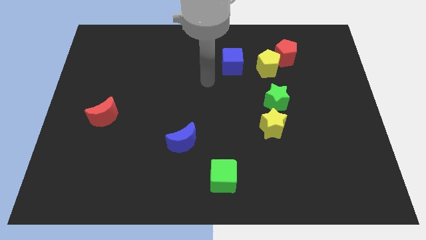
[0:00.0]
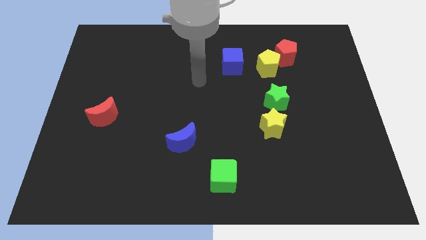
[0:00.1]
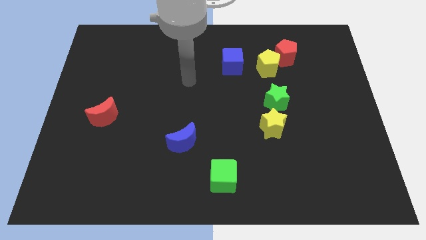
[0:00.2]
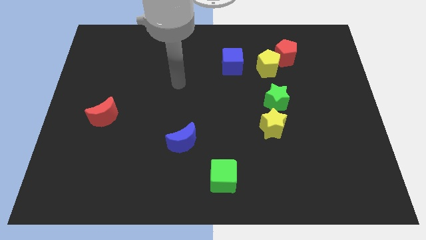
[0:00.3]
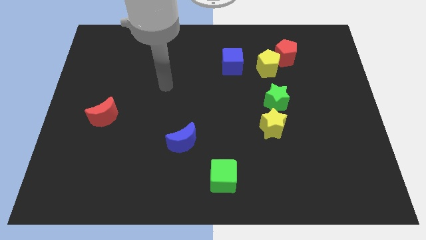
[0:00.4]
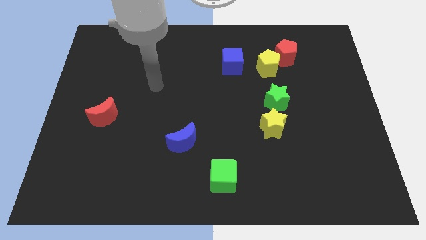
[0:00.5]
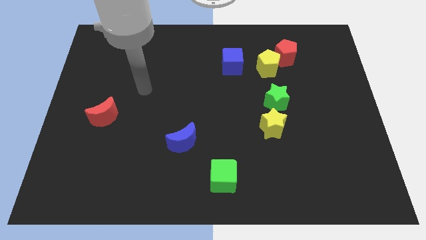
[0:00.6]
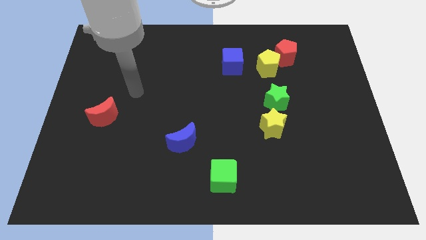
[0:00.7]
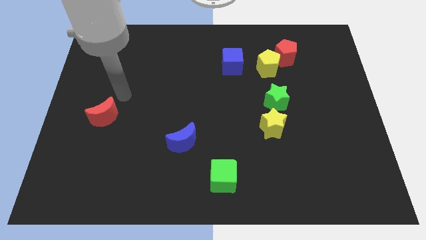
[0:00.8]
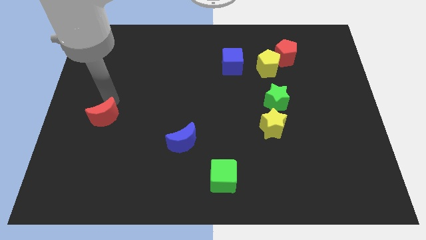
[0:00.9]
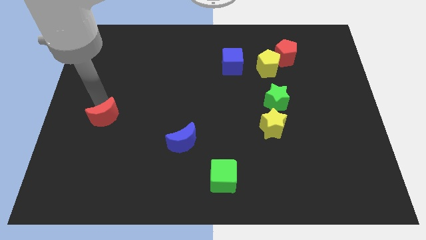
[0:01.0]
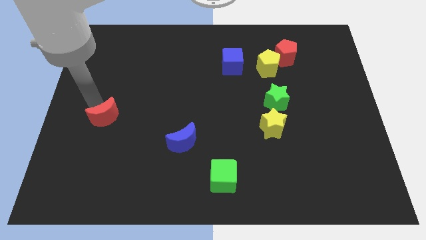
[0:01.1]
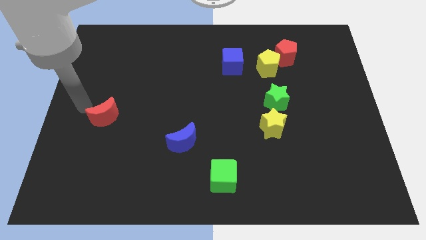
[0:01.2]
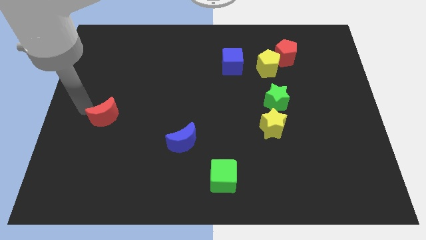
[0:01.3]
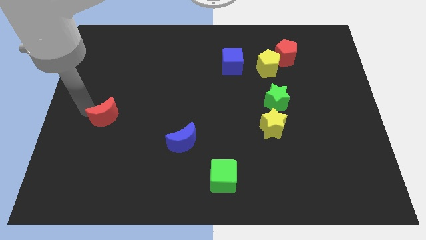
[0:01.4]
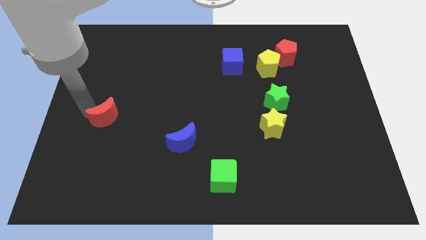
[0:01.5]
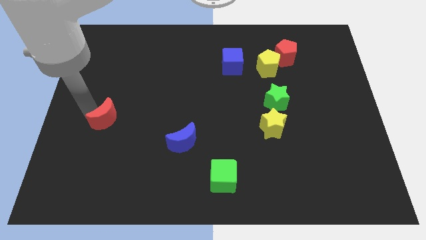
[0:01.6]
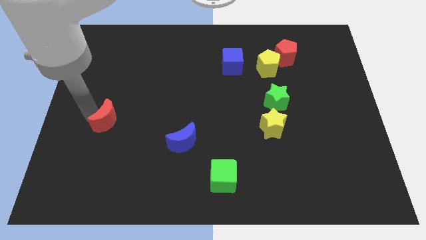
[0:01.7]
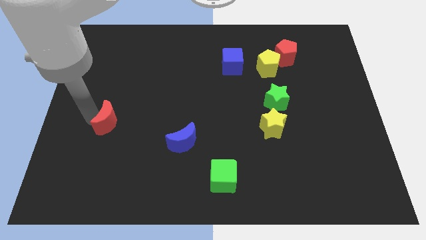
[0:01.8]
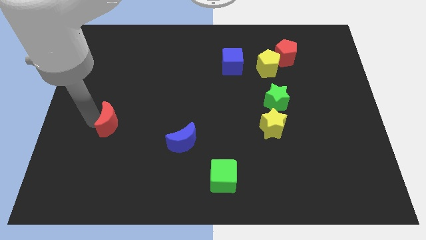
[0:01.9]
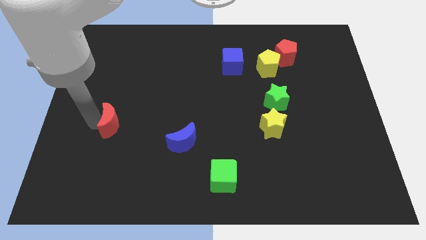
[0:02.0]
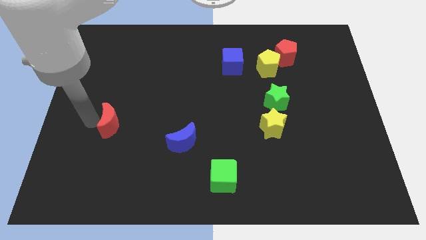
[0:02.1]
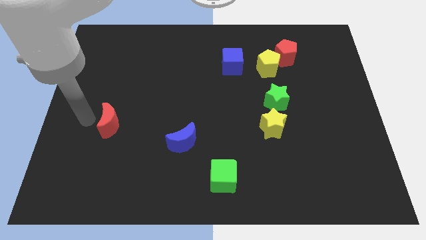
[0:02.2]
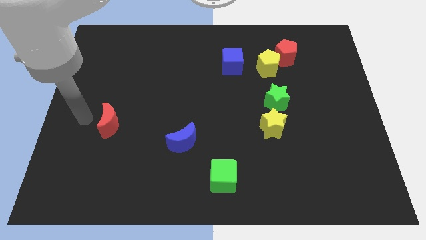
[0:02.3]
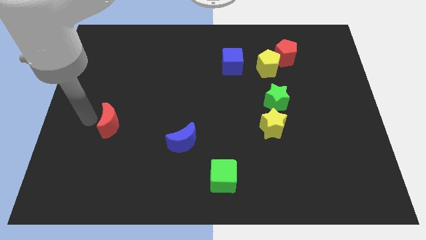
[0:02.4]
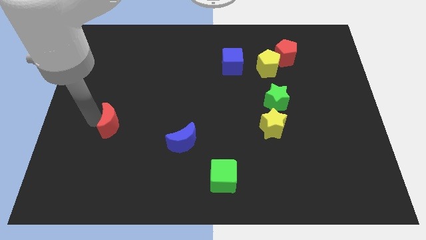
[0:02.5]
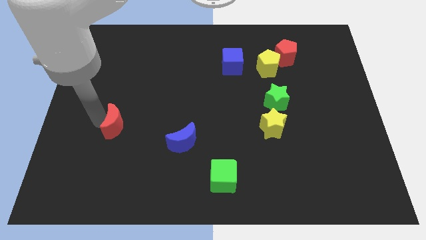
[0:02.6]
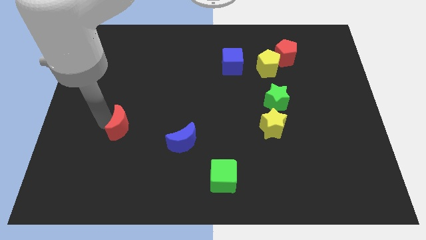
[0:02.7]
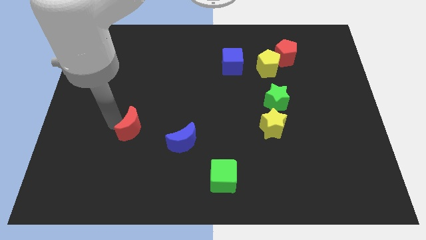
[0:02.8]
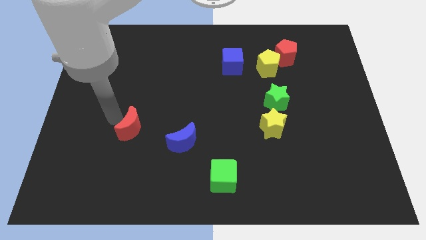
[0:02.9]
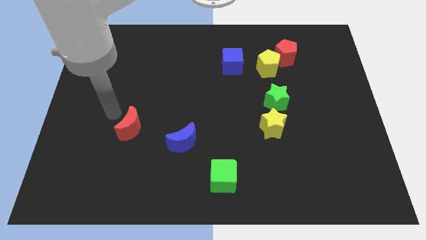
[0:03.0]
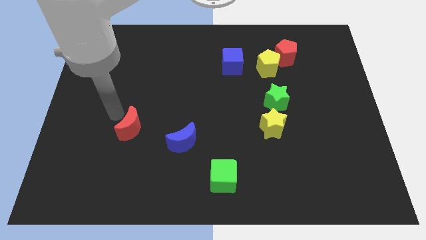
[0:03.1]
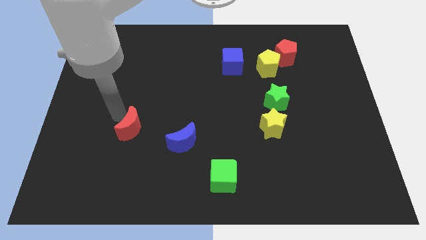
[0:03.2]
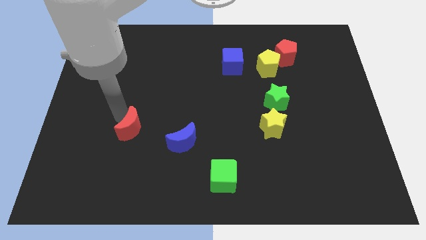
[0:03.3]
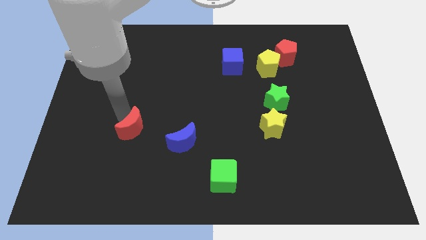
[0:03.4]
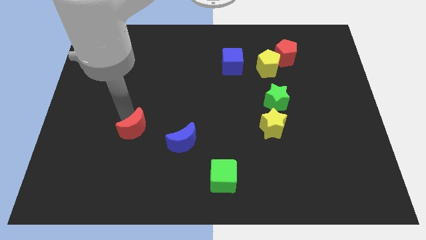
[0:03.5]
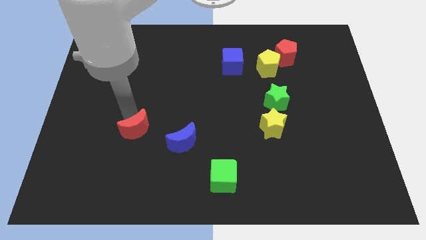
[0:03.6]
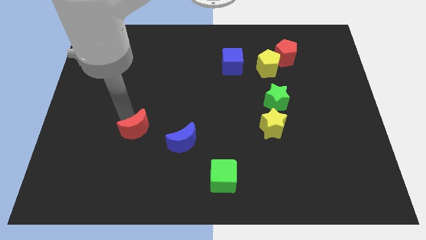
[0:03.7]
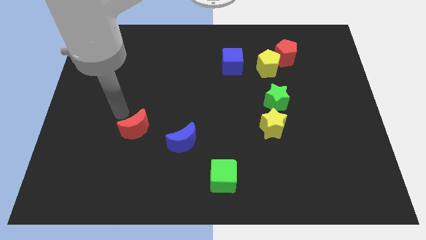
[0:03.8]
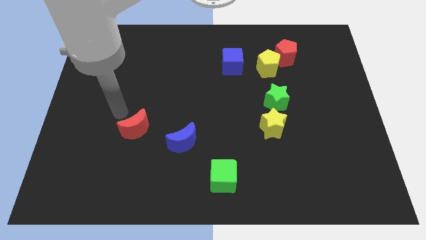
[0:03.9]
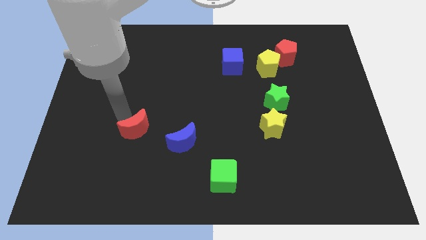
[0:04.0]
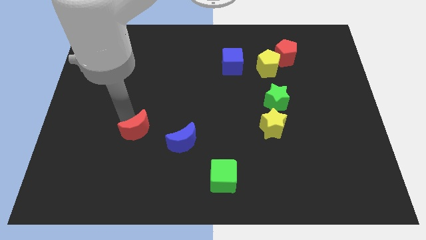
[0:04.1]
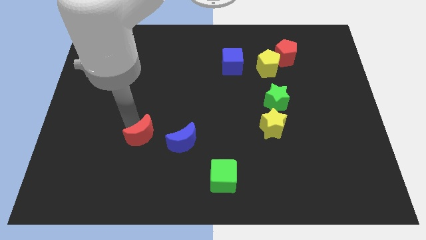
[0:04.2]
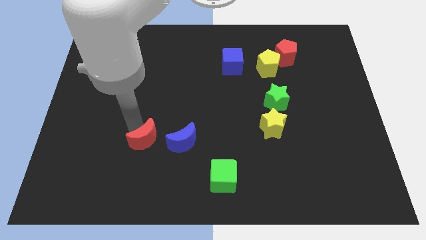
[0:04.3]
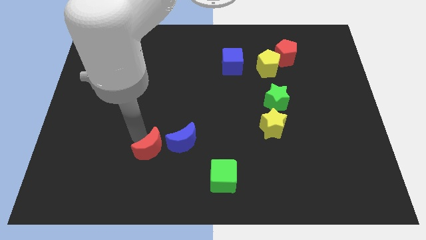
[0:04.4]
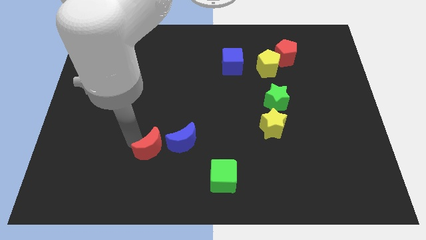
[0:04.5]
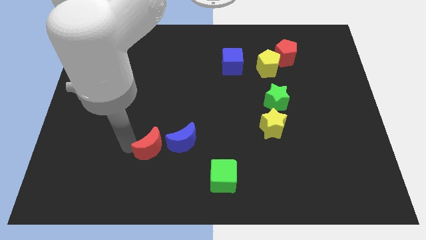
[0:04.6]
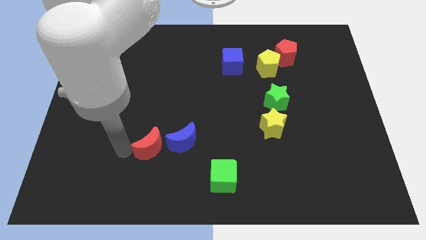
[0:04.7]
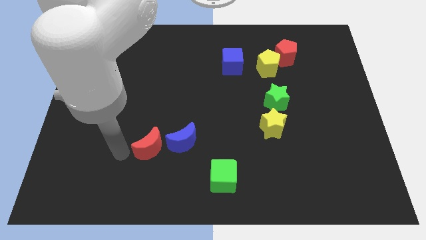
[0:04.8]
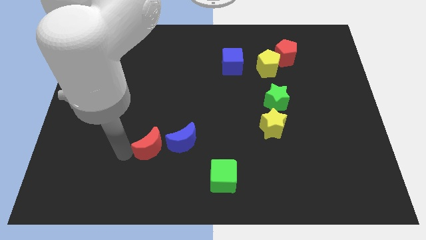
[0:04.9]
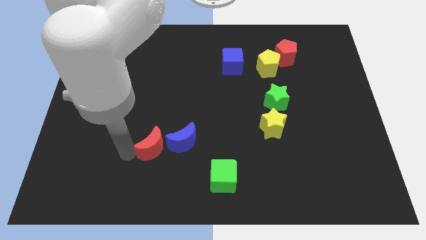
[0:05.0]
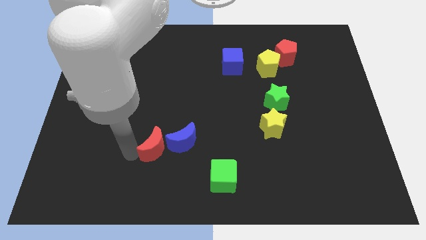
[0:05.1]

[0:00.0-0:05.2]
move the red moon towards the blue moon

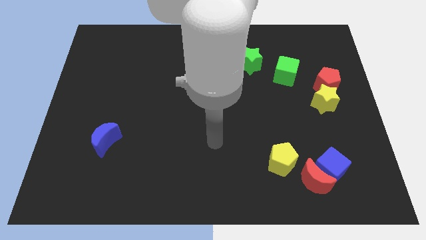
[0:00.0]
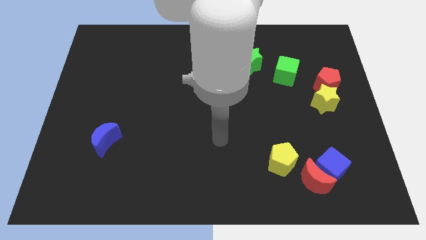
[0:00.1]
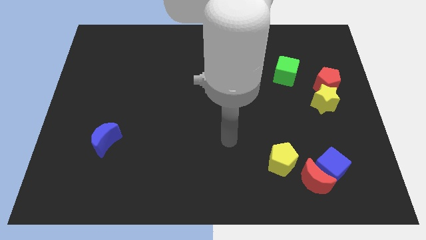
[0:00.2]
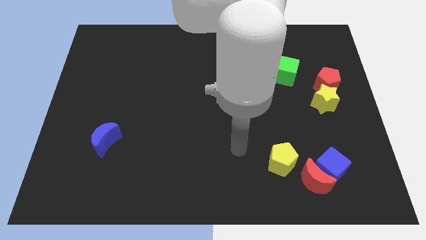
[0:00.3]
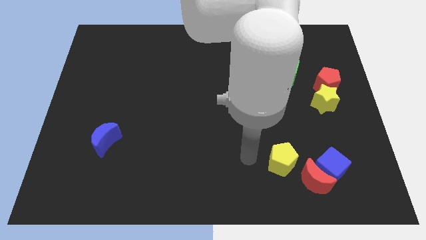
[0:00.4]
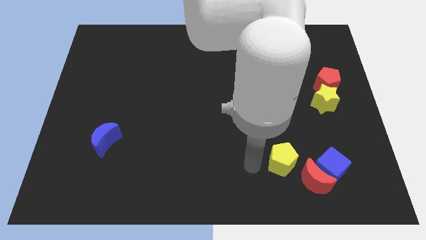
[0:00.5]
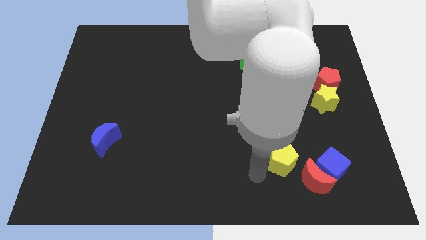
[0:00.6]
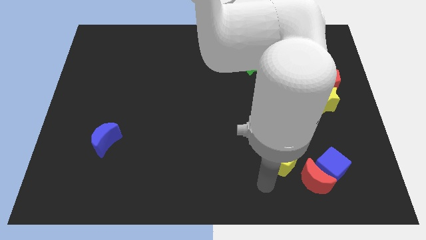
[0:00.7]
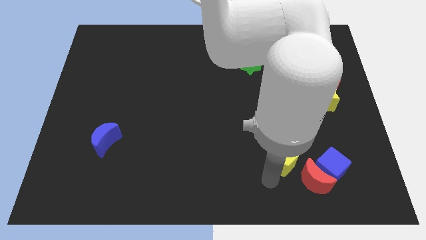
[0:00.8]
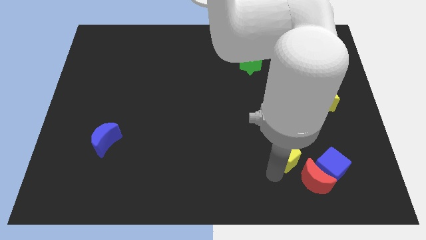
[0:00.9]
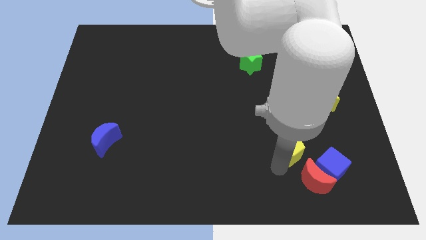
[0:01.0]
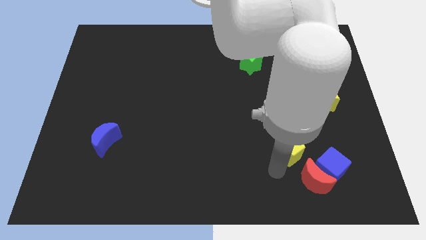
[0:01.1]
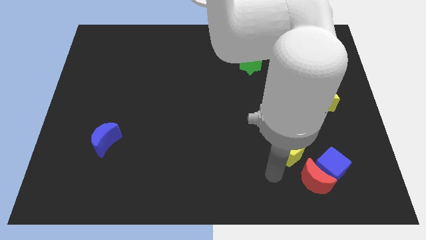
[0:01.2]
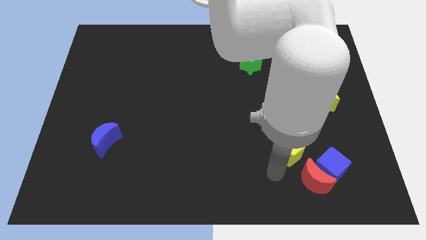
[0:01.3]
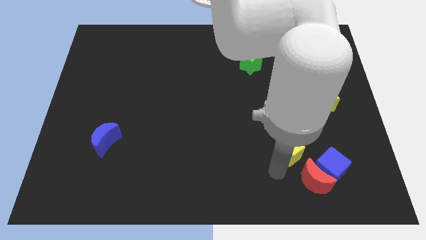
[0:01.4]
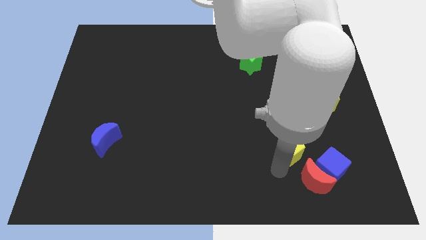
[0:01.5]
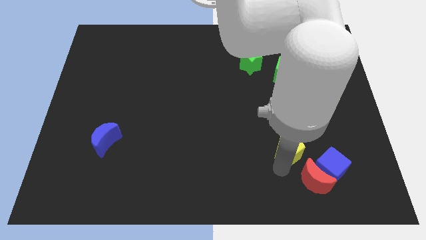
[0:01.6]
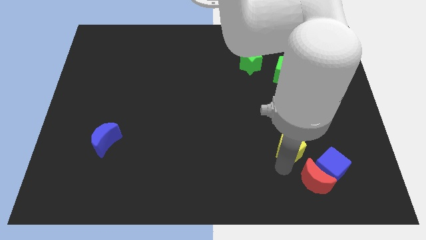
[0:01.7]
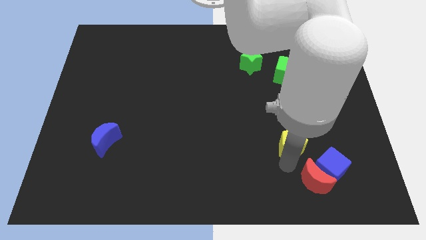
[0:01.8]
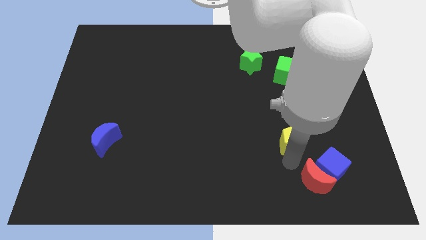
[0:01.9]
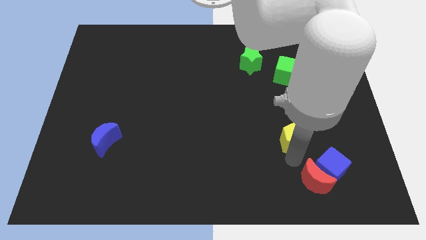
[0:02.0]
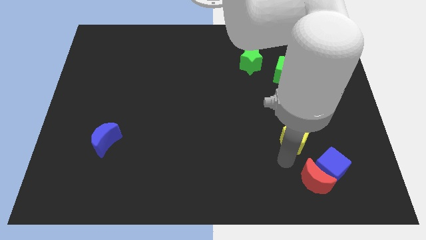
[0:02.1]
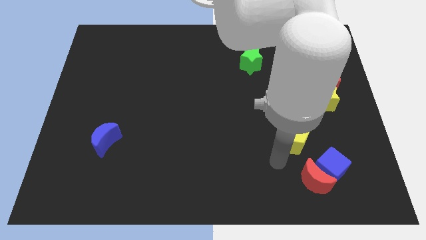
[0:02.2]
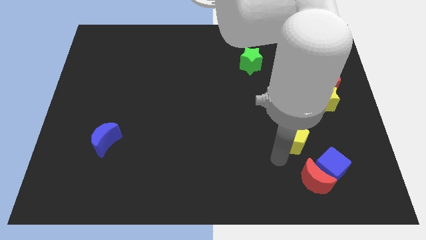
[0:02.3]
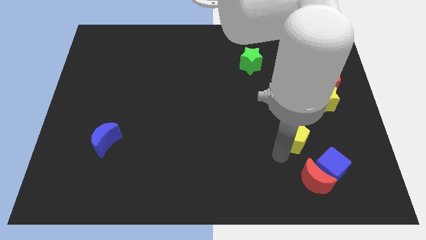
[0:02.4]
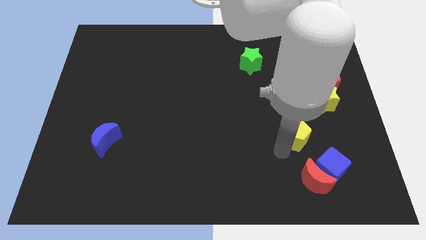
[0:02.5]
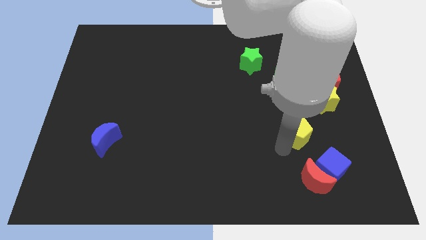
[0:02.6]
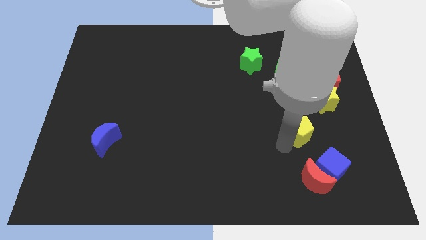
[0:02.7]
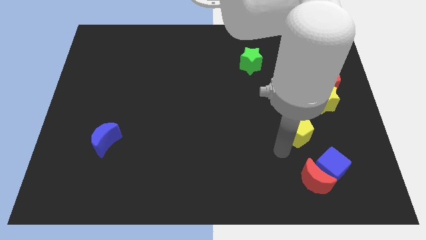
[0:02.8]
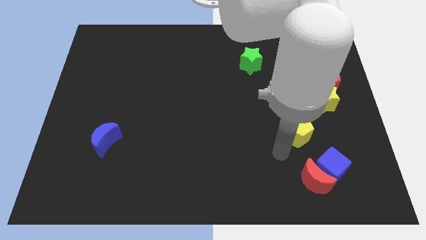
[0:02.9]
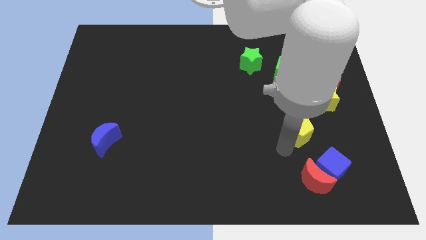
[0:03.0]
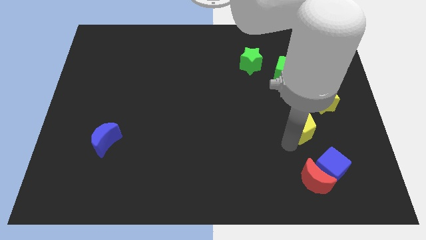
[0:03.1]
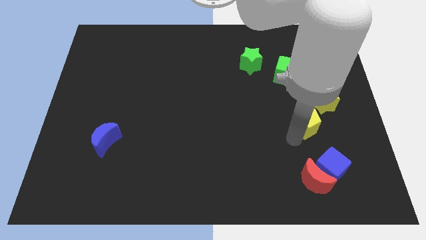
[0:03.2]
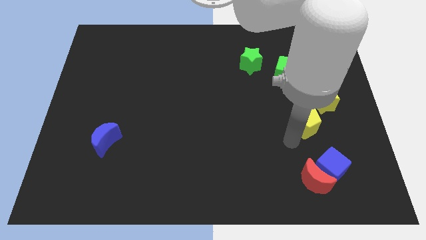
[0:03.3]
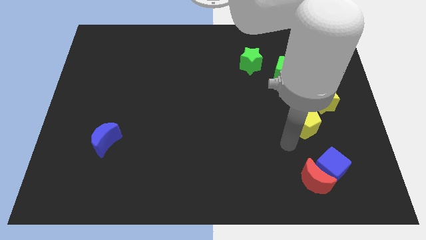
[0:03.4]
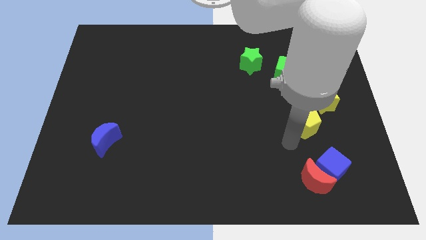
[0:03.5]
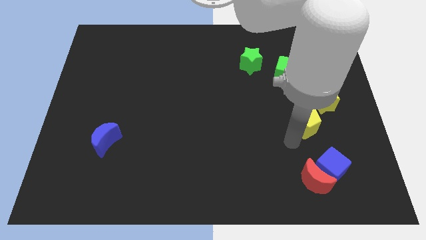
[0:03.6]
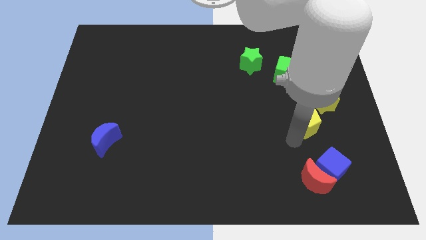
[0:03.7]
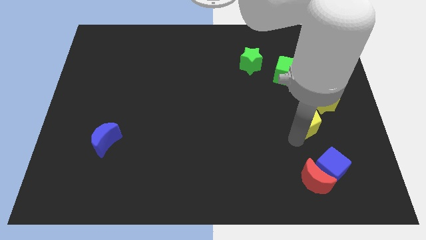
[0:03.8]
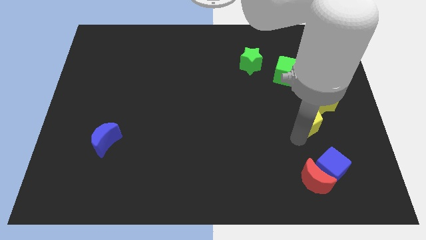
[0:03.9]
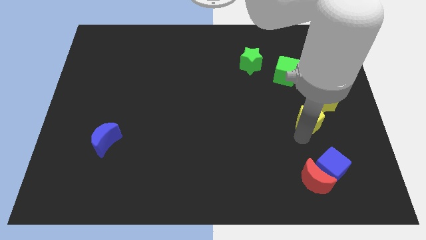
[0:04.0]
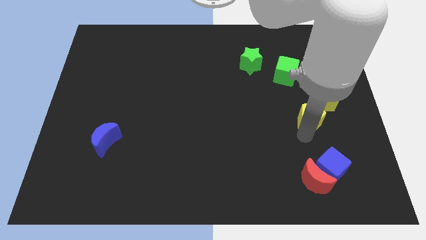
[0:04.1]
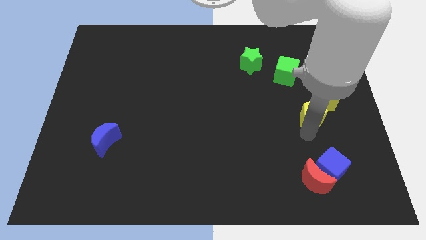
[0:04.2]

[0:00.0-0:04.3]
slide the yellow pentagon to the yellow star
